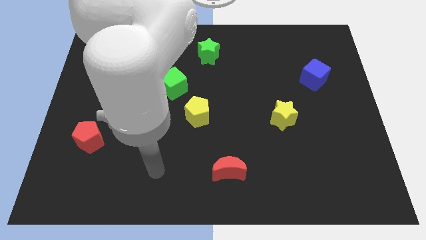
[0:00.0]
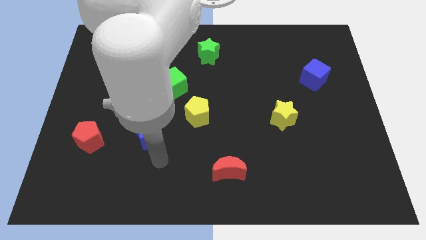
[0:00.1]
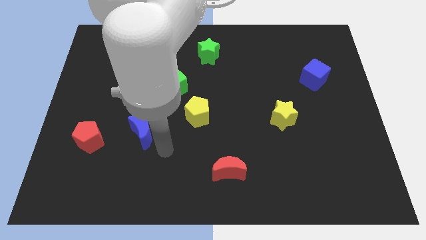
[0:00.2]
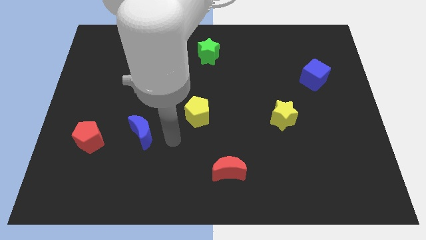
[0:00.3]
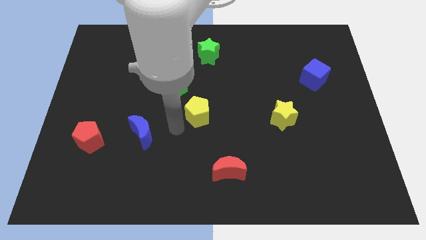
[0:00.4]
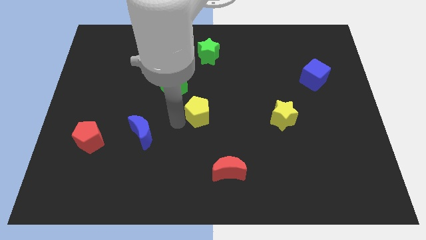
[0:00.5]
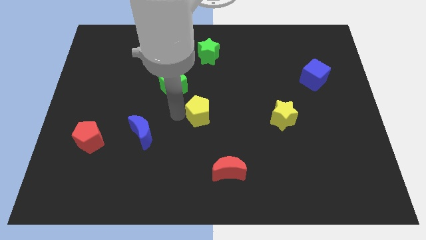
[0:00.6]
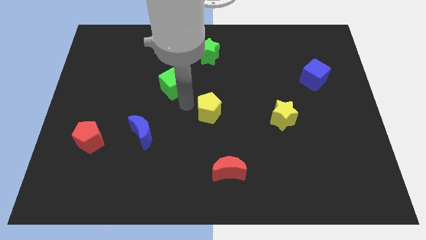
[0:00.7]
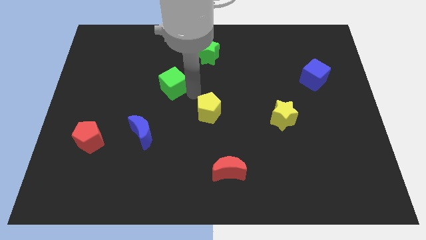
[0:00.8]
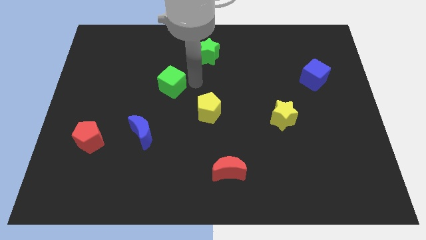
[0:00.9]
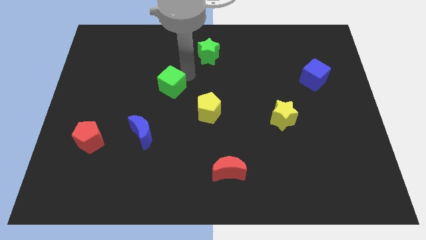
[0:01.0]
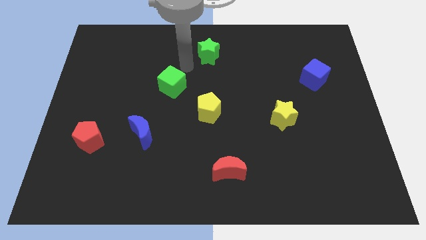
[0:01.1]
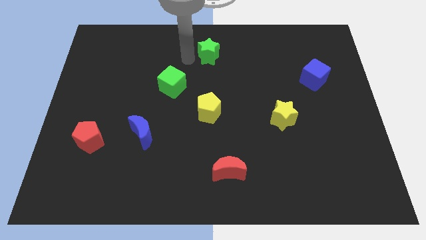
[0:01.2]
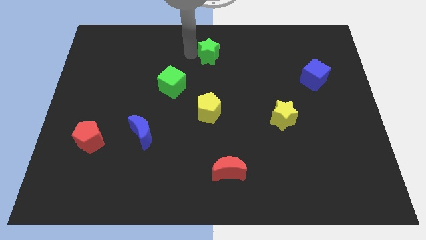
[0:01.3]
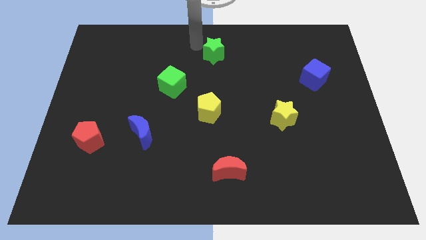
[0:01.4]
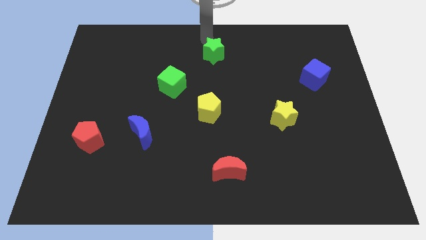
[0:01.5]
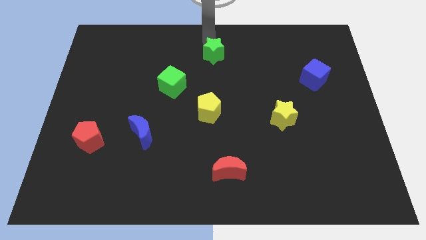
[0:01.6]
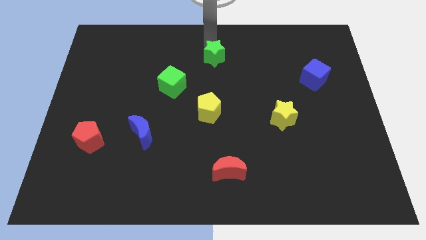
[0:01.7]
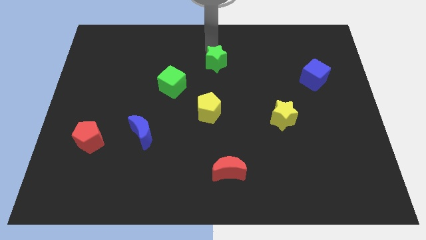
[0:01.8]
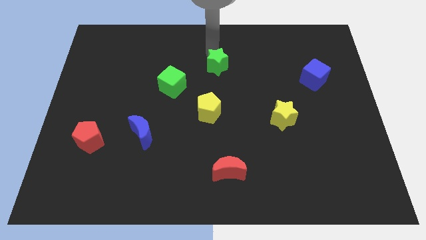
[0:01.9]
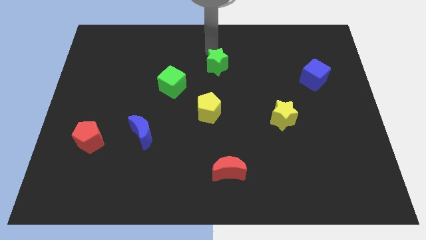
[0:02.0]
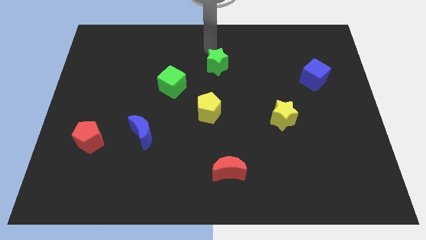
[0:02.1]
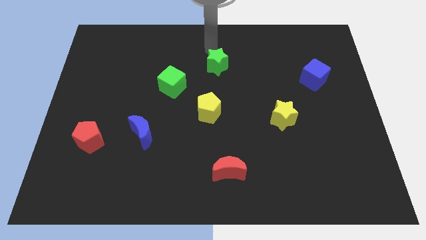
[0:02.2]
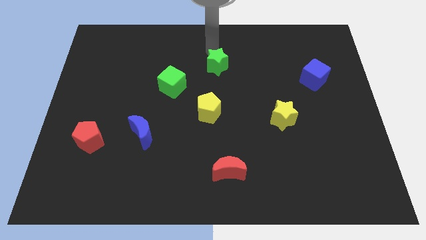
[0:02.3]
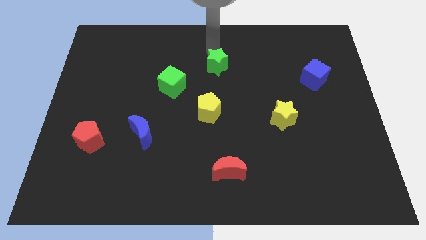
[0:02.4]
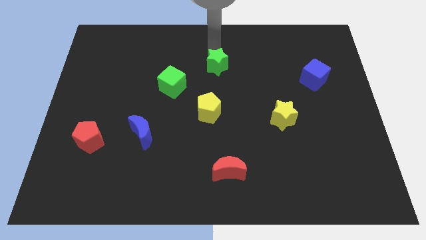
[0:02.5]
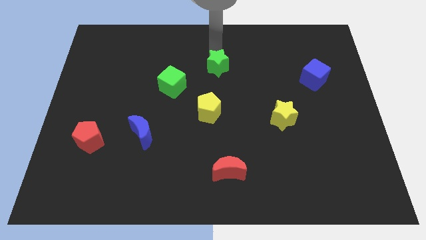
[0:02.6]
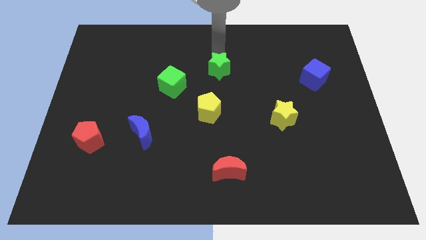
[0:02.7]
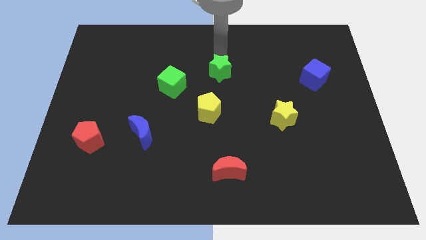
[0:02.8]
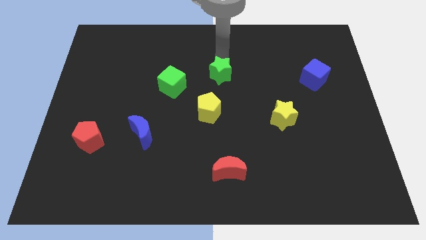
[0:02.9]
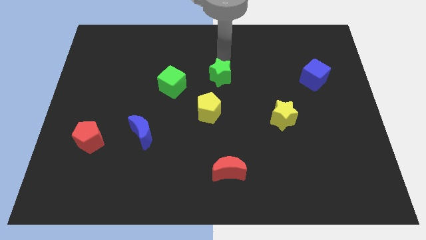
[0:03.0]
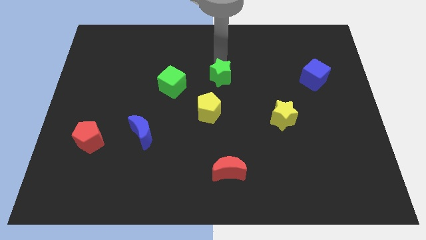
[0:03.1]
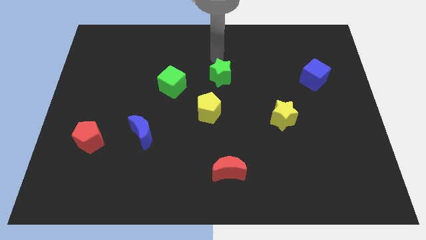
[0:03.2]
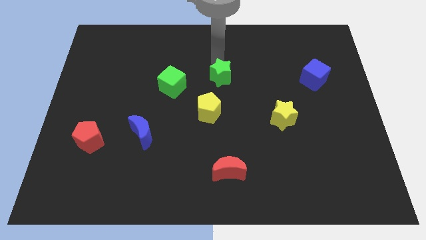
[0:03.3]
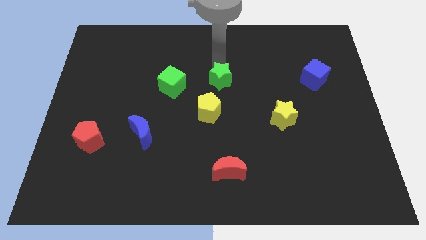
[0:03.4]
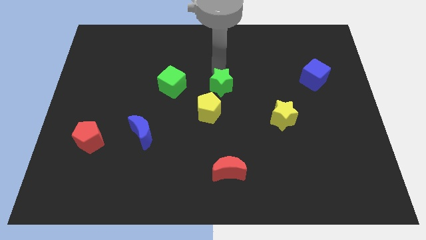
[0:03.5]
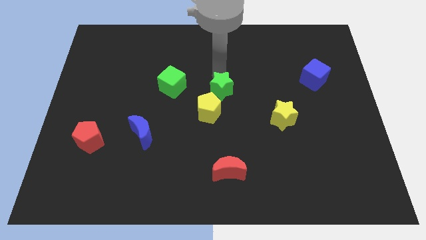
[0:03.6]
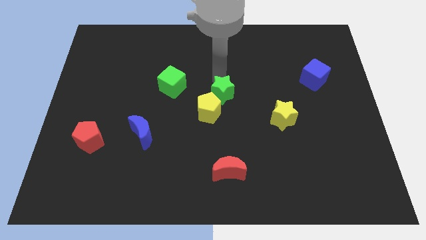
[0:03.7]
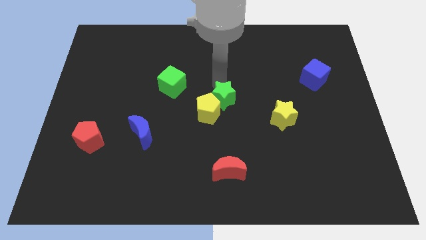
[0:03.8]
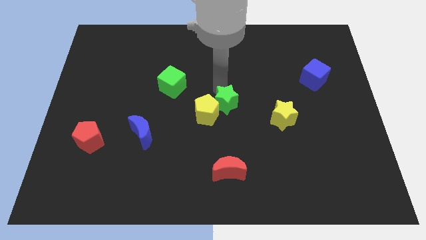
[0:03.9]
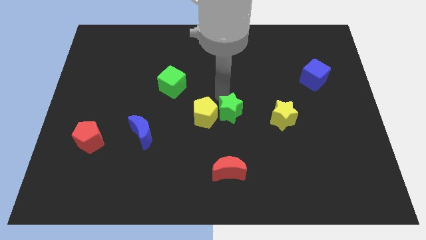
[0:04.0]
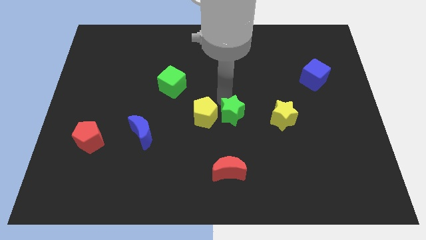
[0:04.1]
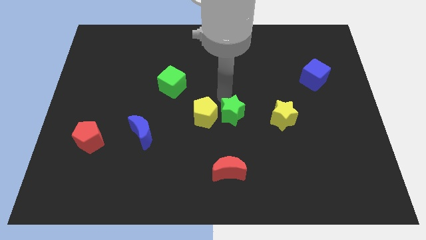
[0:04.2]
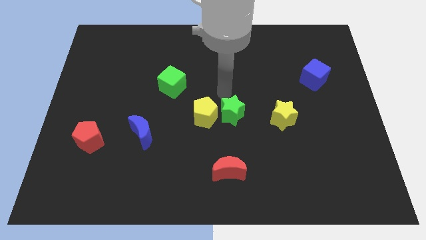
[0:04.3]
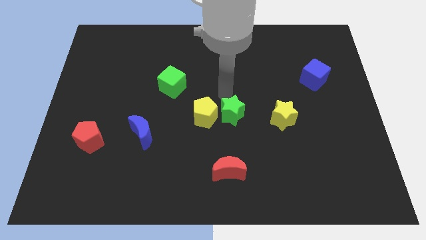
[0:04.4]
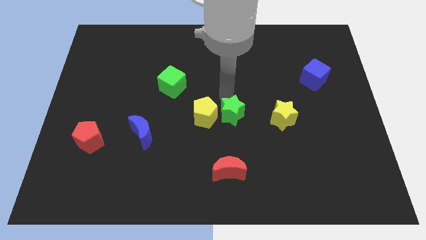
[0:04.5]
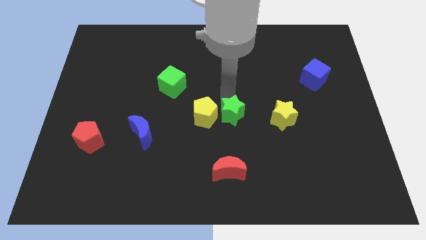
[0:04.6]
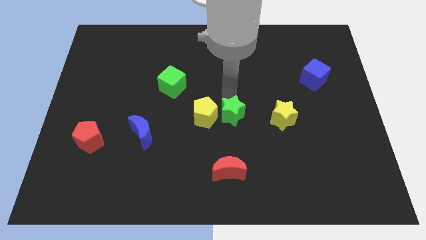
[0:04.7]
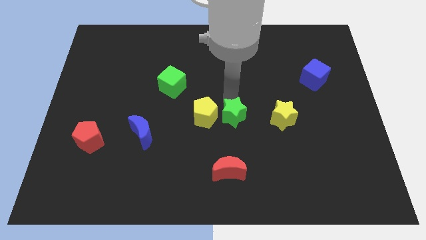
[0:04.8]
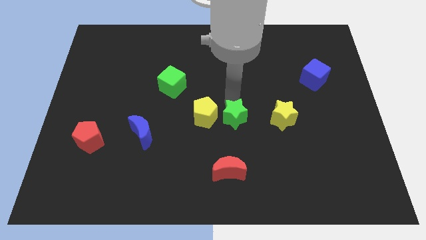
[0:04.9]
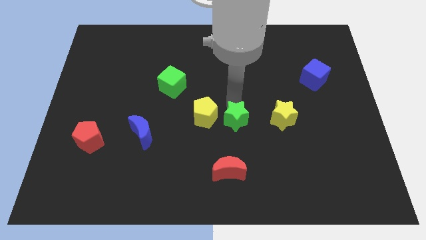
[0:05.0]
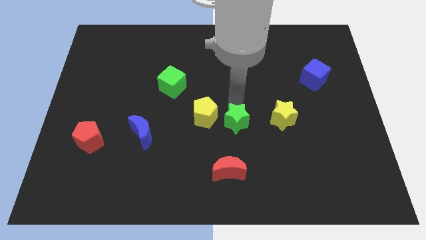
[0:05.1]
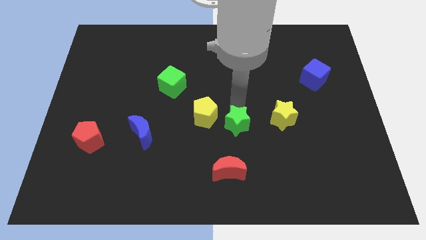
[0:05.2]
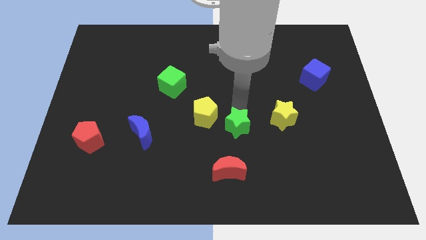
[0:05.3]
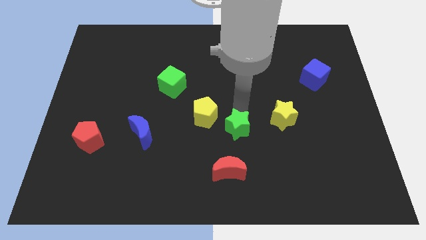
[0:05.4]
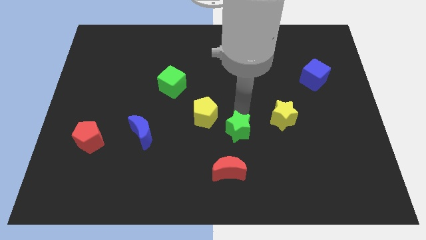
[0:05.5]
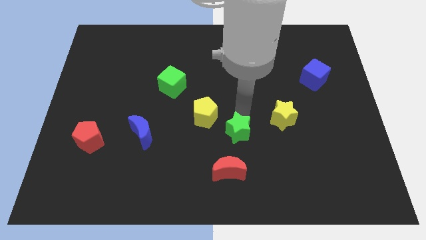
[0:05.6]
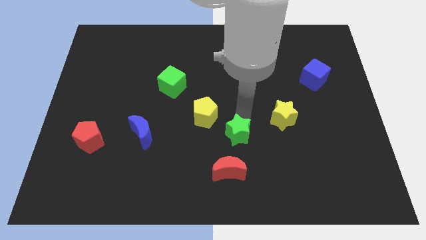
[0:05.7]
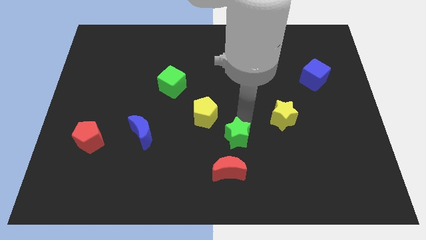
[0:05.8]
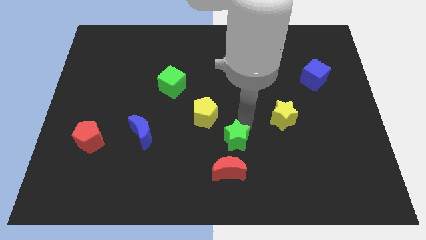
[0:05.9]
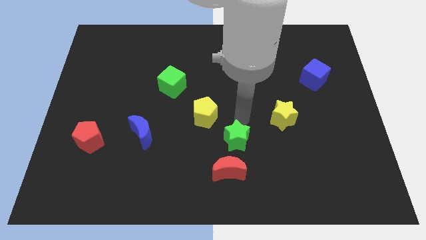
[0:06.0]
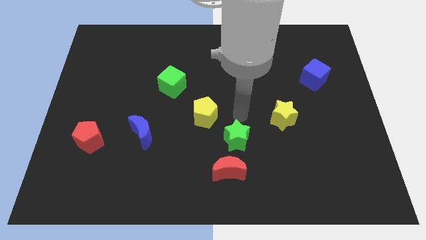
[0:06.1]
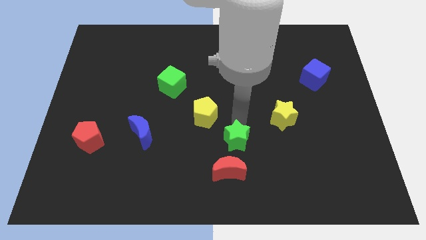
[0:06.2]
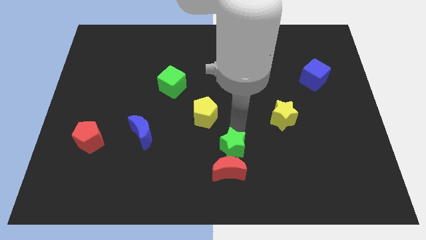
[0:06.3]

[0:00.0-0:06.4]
push the green star next to the red moon

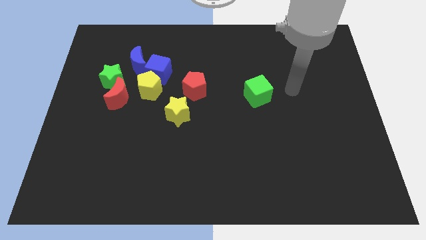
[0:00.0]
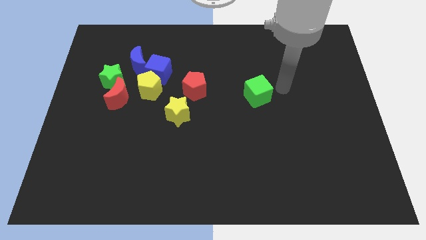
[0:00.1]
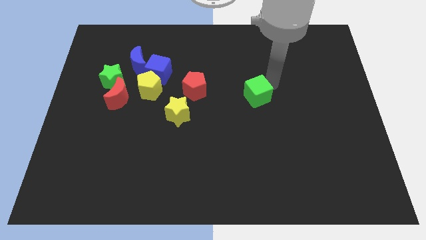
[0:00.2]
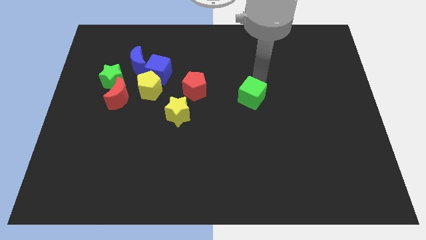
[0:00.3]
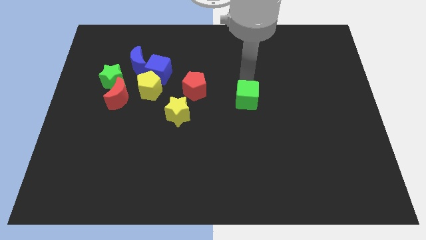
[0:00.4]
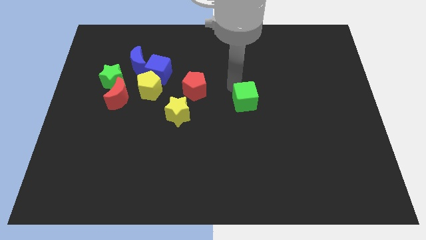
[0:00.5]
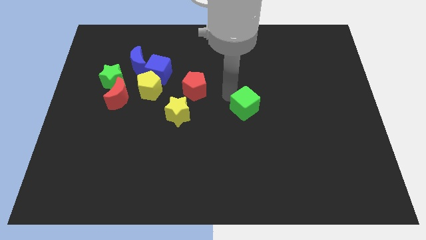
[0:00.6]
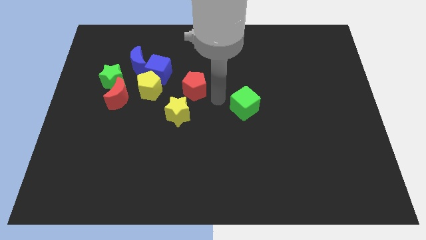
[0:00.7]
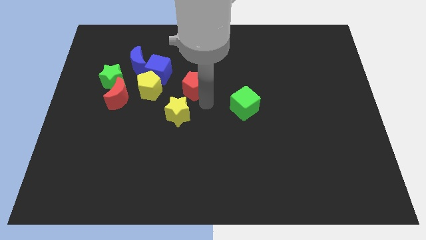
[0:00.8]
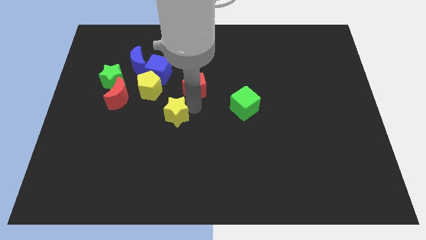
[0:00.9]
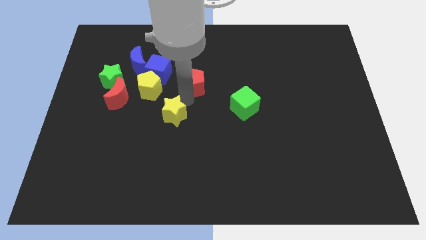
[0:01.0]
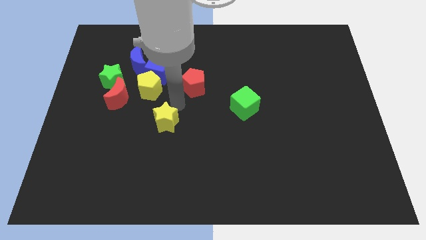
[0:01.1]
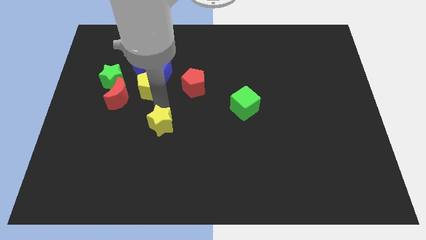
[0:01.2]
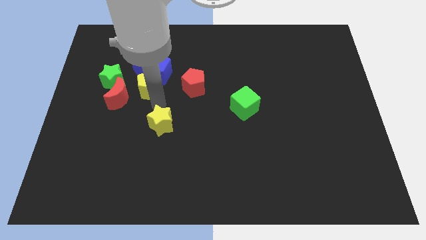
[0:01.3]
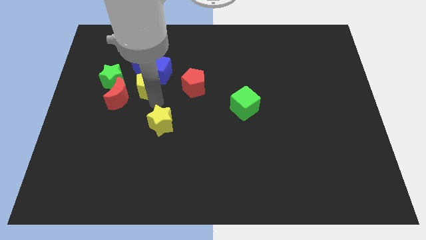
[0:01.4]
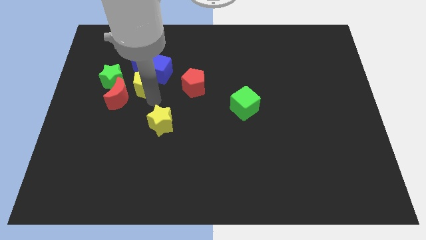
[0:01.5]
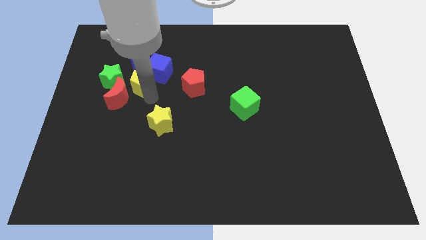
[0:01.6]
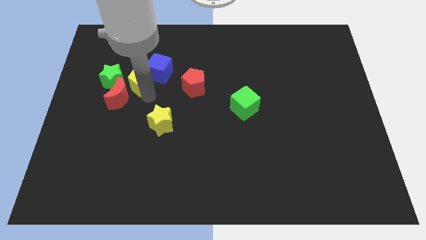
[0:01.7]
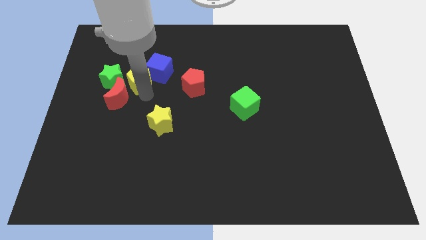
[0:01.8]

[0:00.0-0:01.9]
push the yellow pentagon to the blue moon
